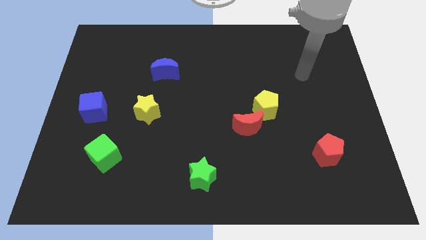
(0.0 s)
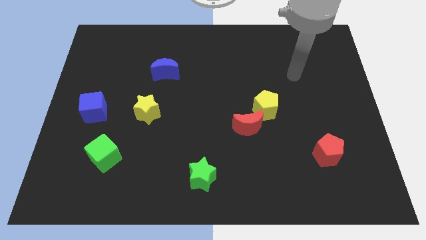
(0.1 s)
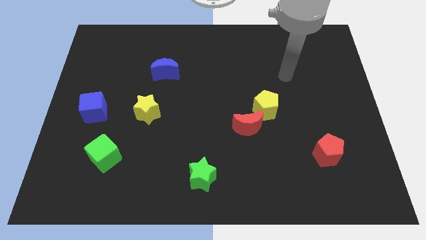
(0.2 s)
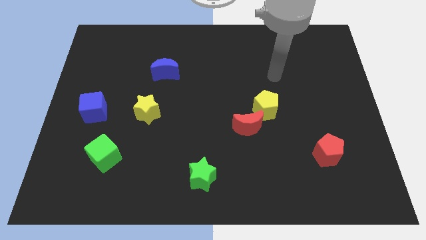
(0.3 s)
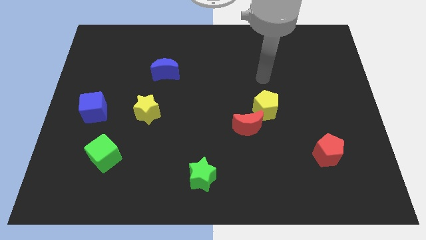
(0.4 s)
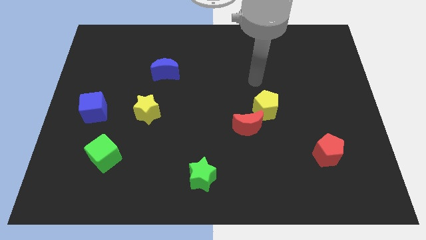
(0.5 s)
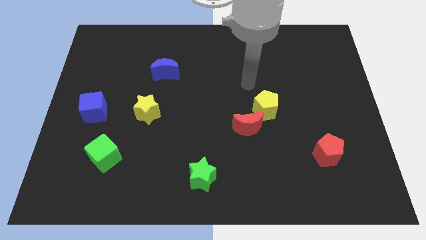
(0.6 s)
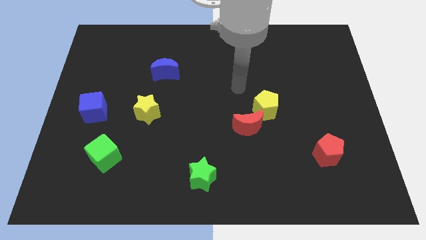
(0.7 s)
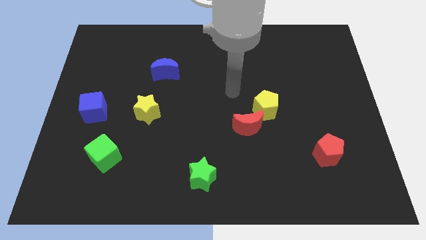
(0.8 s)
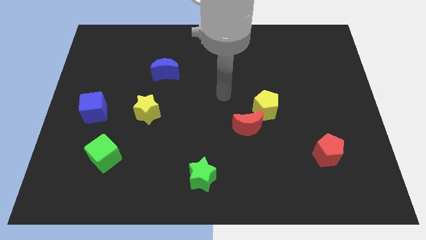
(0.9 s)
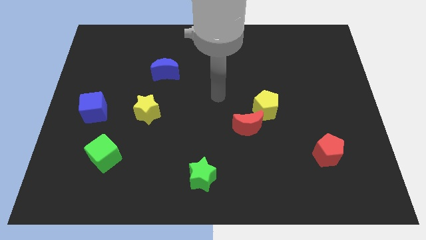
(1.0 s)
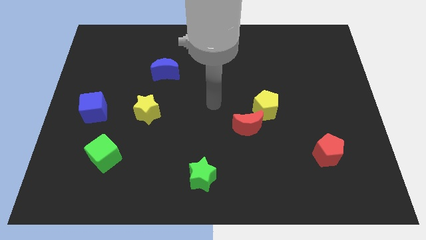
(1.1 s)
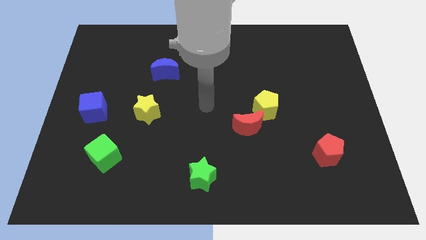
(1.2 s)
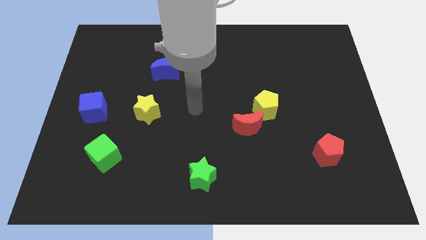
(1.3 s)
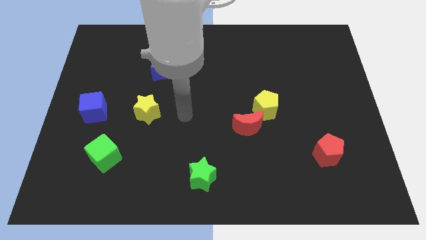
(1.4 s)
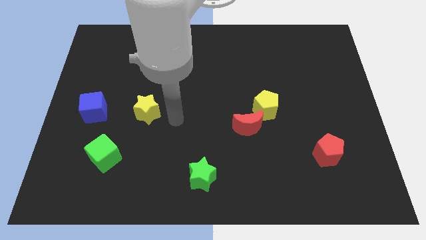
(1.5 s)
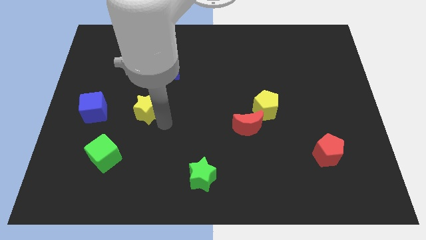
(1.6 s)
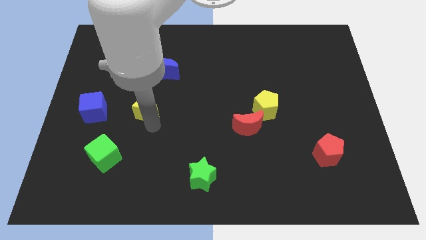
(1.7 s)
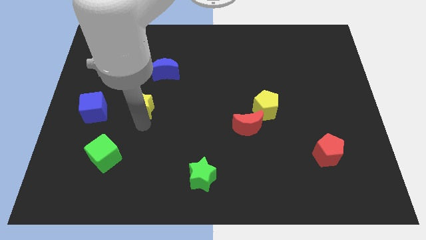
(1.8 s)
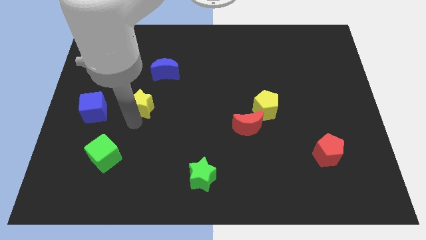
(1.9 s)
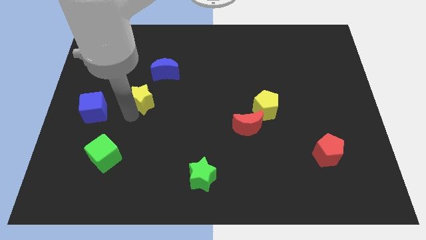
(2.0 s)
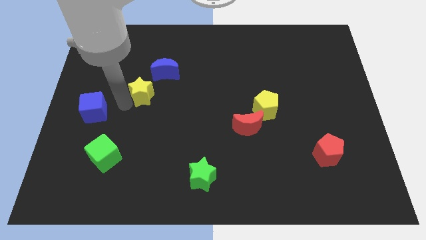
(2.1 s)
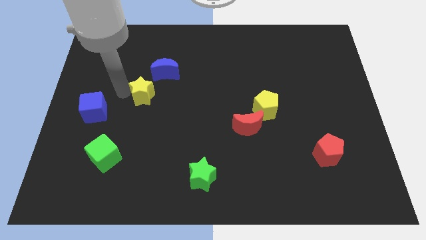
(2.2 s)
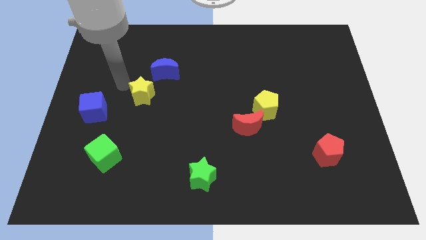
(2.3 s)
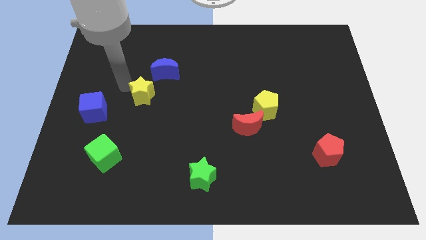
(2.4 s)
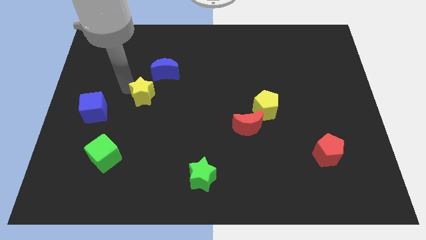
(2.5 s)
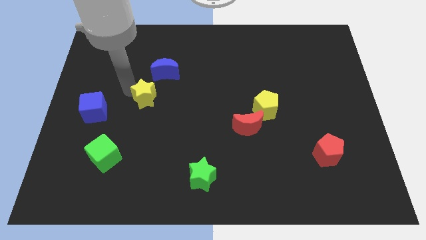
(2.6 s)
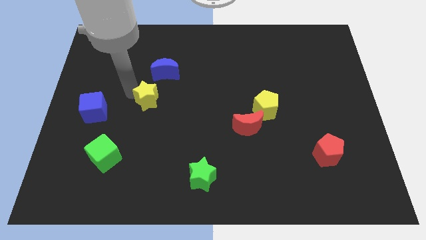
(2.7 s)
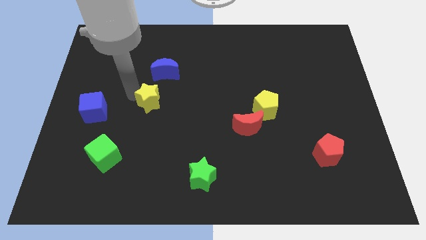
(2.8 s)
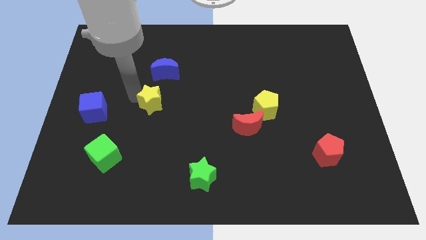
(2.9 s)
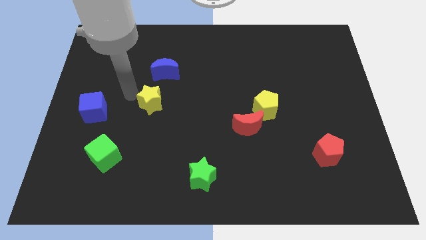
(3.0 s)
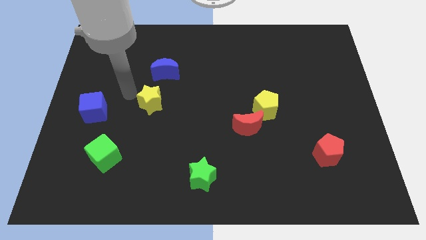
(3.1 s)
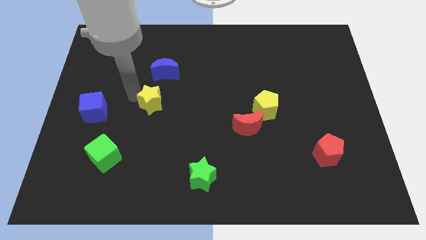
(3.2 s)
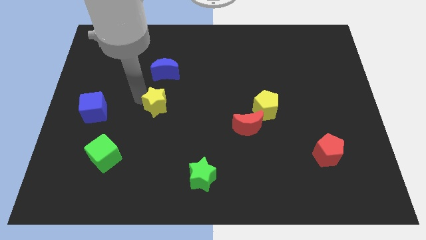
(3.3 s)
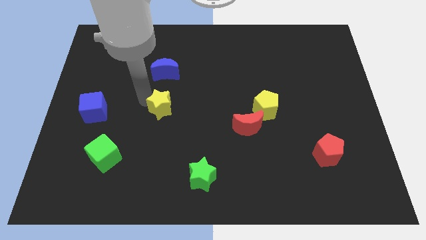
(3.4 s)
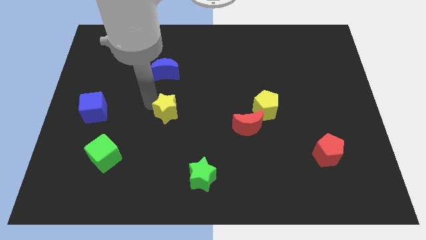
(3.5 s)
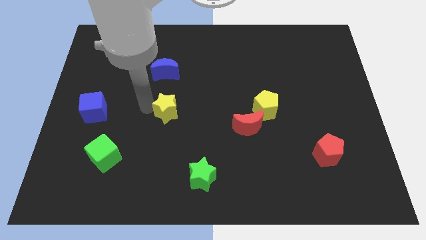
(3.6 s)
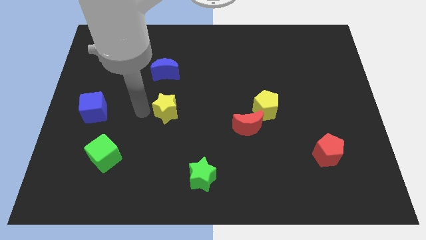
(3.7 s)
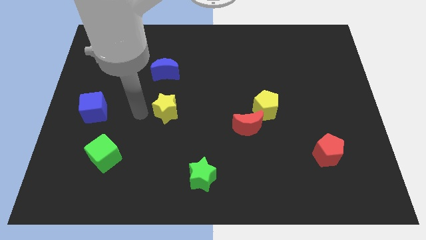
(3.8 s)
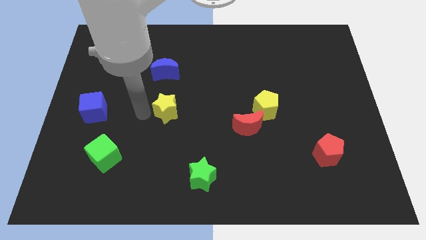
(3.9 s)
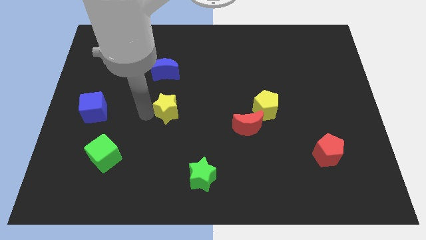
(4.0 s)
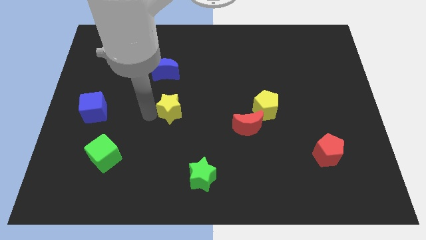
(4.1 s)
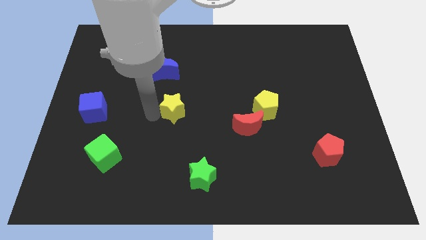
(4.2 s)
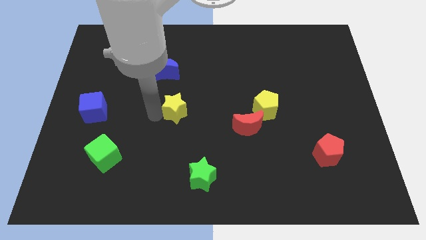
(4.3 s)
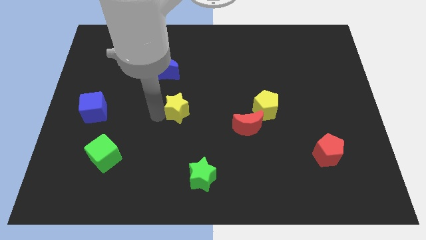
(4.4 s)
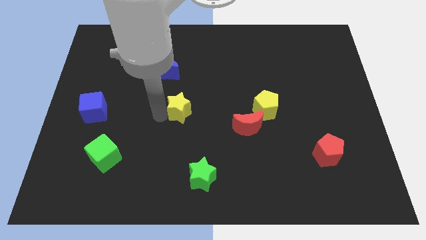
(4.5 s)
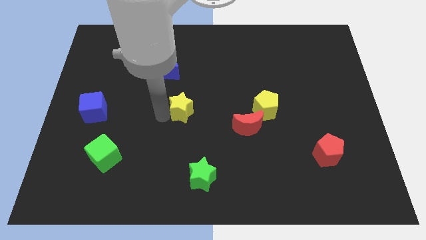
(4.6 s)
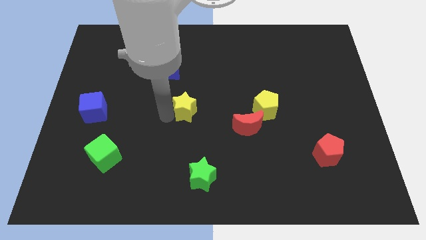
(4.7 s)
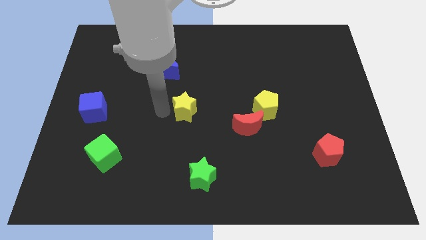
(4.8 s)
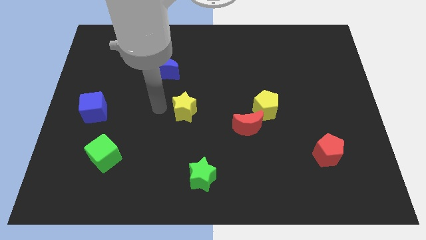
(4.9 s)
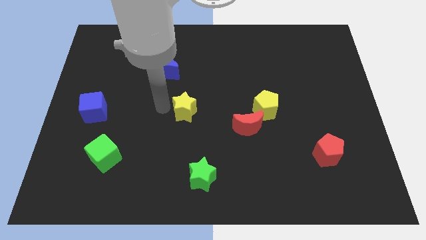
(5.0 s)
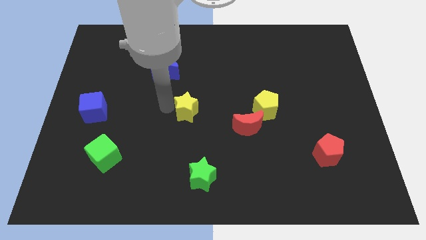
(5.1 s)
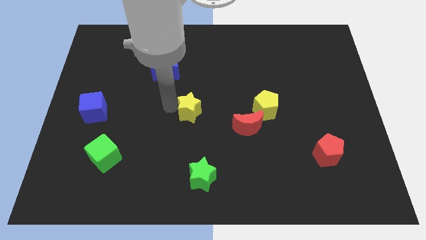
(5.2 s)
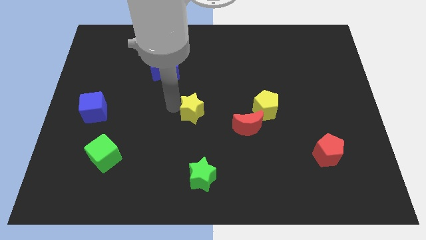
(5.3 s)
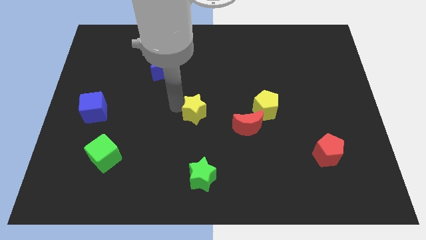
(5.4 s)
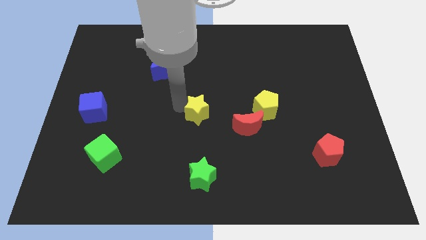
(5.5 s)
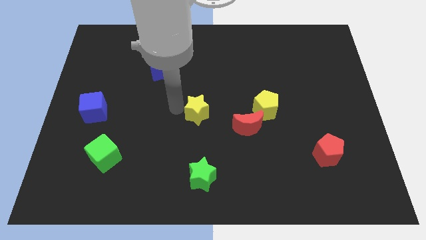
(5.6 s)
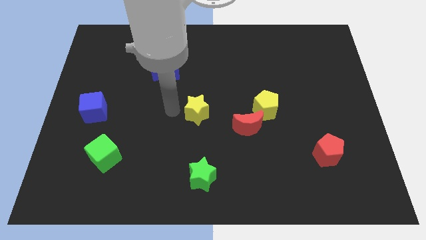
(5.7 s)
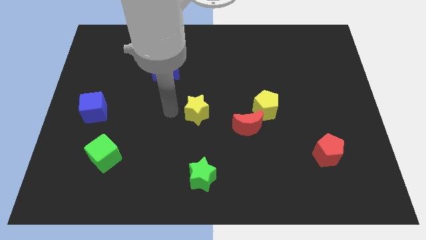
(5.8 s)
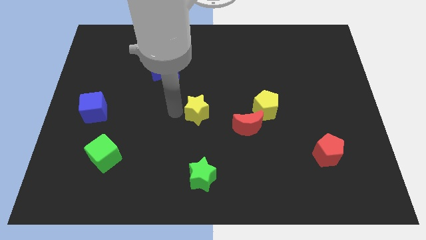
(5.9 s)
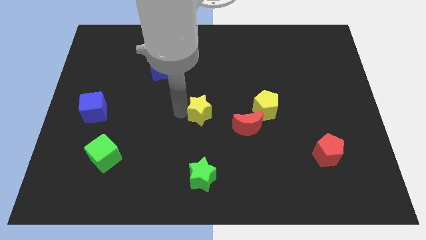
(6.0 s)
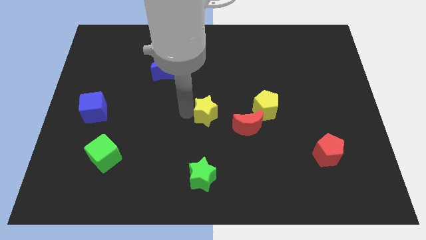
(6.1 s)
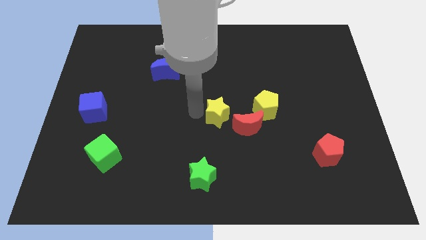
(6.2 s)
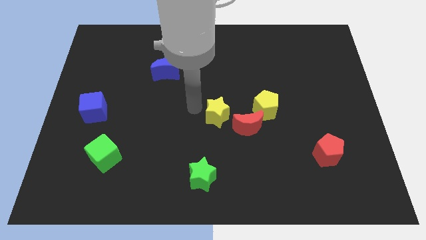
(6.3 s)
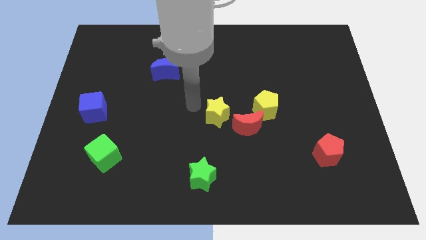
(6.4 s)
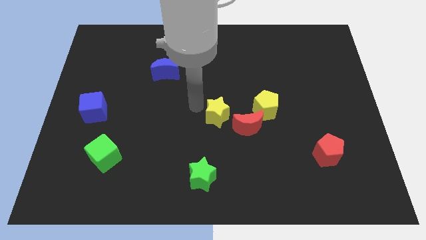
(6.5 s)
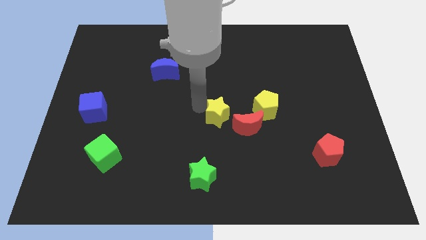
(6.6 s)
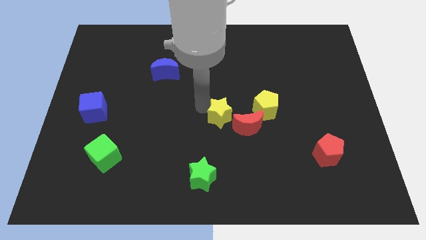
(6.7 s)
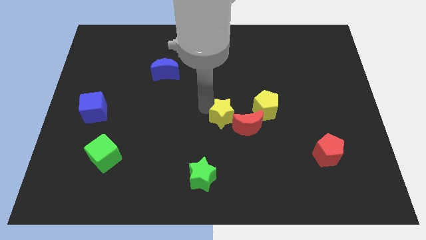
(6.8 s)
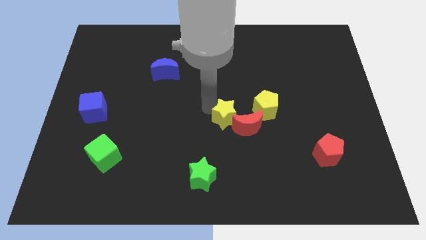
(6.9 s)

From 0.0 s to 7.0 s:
push the yellow star close to the red moon

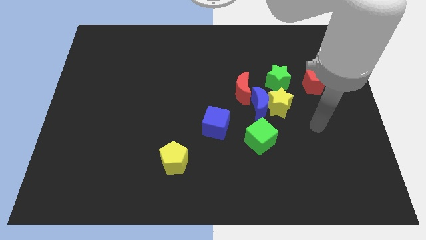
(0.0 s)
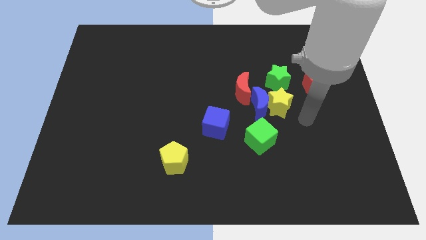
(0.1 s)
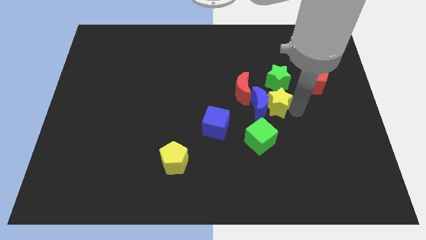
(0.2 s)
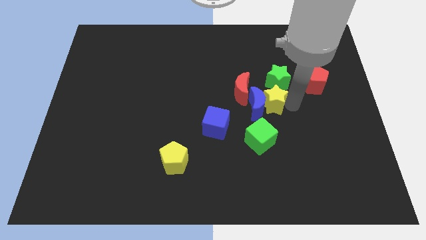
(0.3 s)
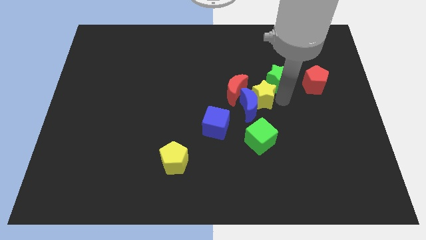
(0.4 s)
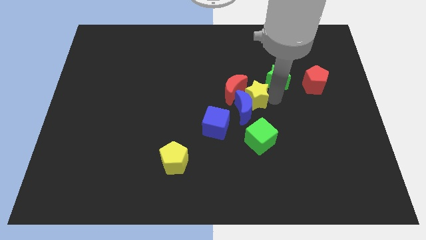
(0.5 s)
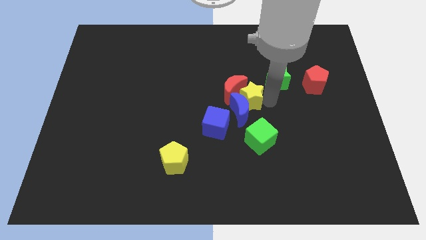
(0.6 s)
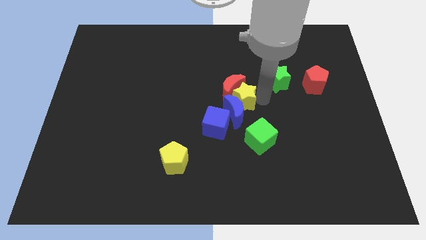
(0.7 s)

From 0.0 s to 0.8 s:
put the blue moon next to the blue cube
